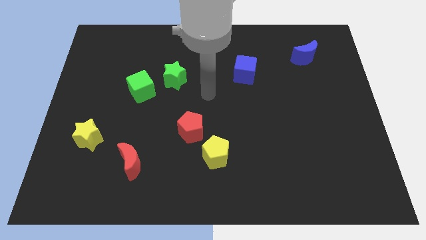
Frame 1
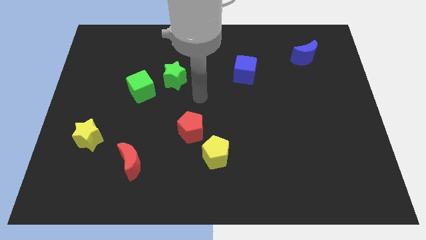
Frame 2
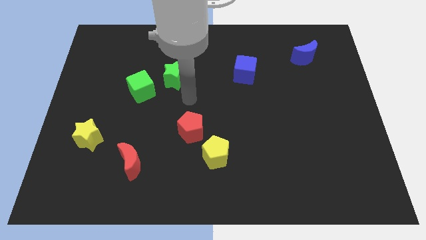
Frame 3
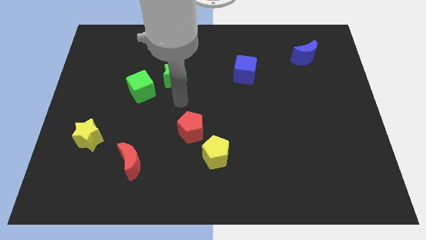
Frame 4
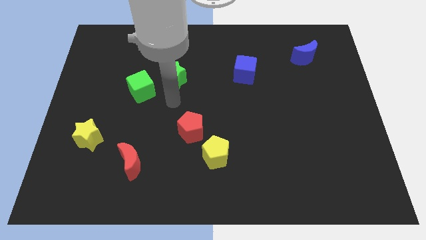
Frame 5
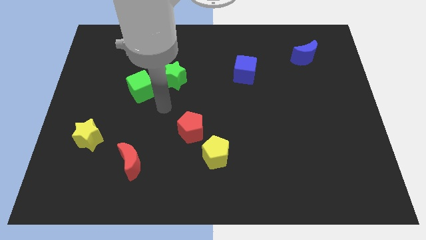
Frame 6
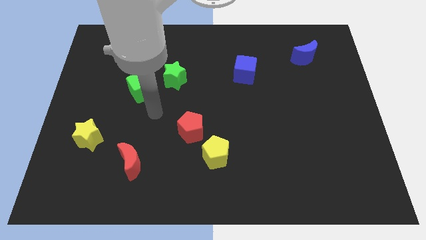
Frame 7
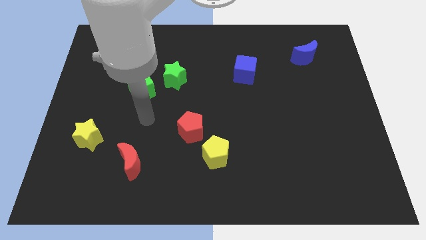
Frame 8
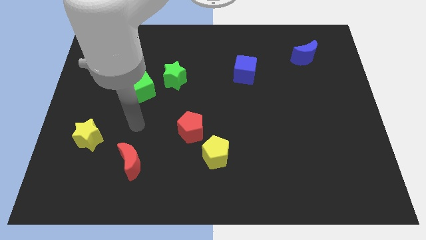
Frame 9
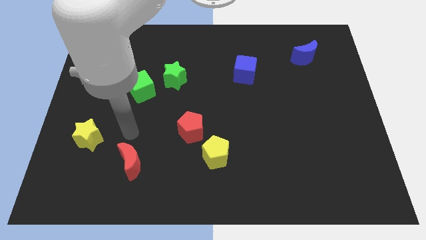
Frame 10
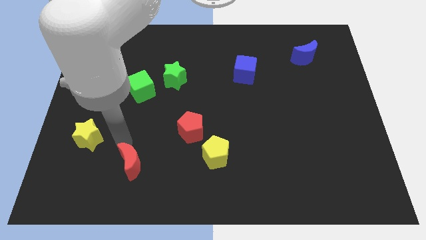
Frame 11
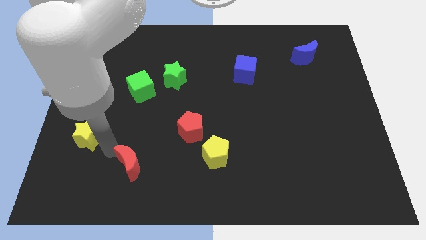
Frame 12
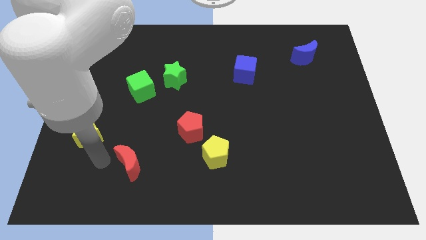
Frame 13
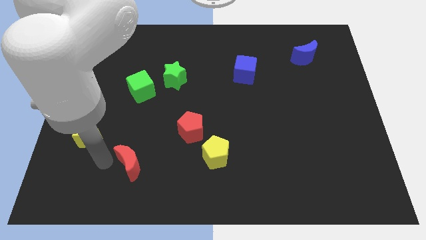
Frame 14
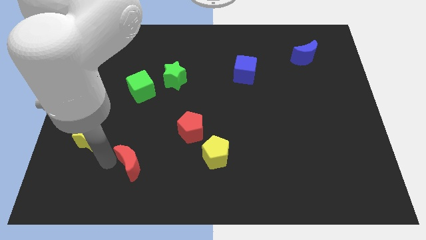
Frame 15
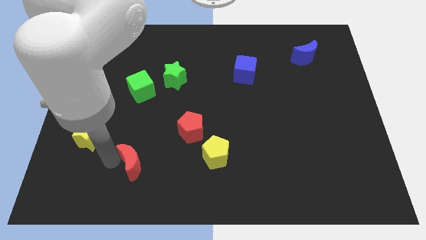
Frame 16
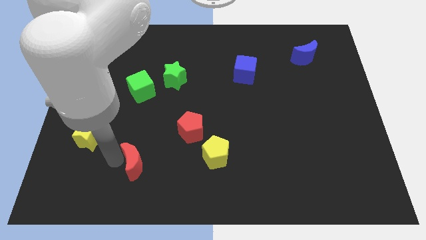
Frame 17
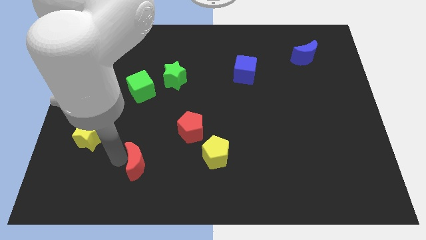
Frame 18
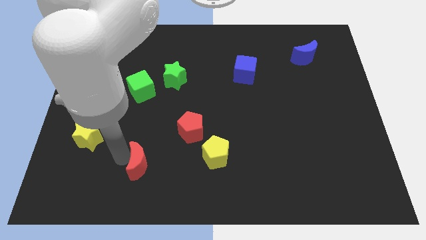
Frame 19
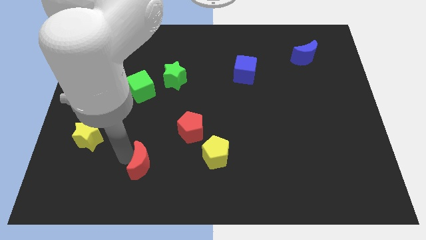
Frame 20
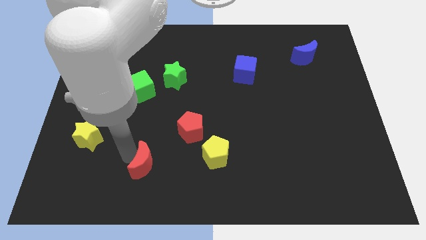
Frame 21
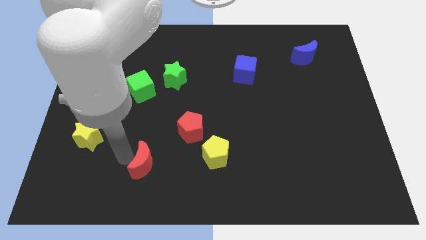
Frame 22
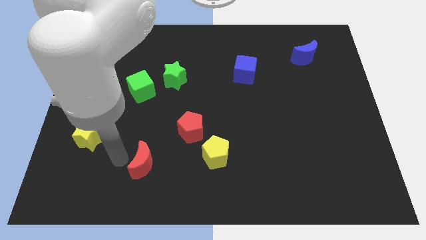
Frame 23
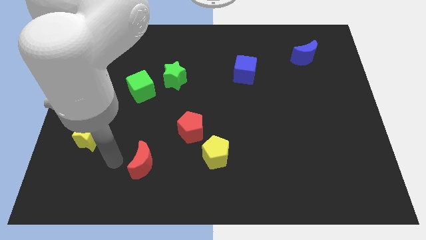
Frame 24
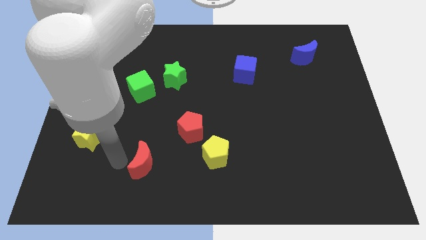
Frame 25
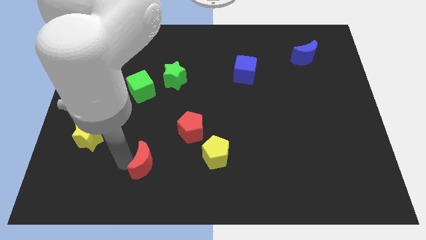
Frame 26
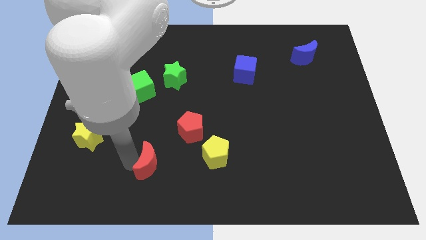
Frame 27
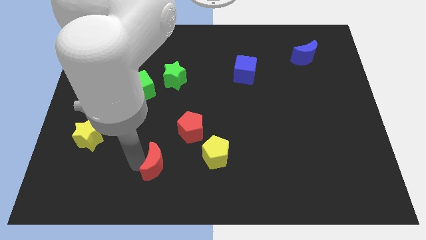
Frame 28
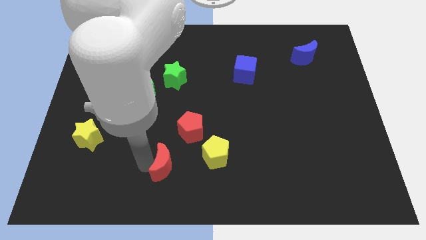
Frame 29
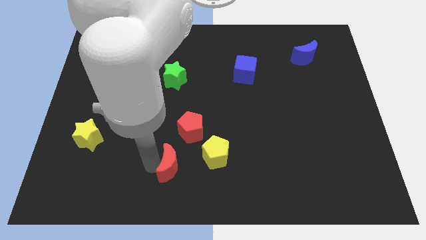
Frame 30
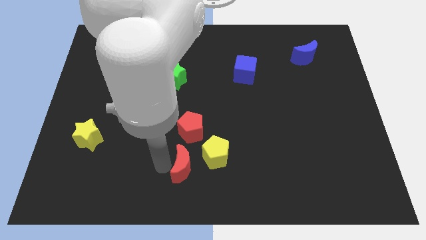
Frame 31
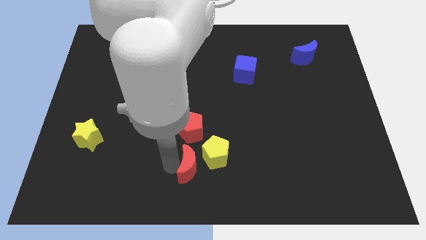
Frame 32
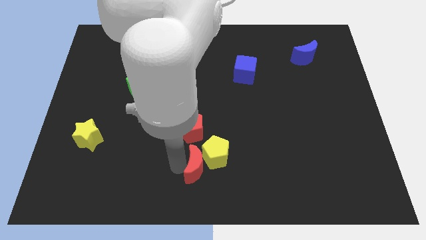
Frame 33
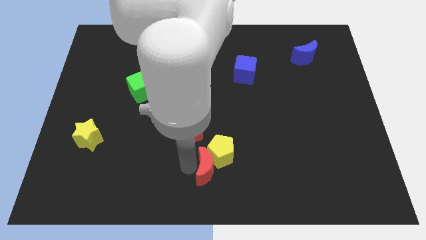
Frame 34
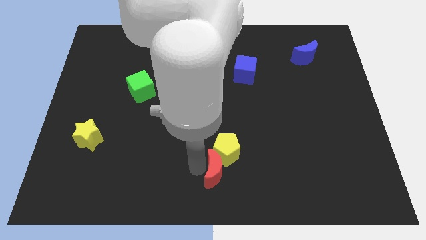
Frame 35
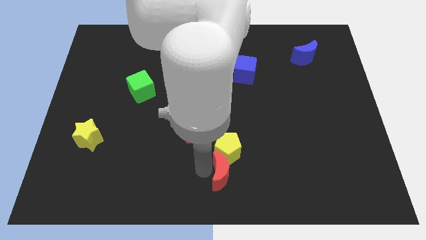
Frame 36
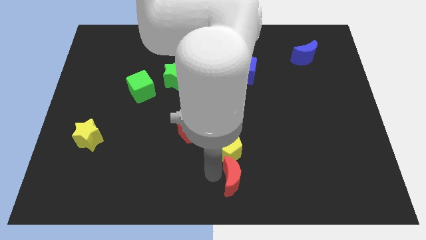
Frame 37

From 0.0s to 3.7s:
push the red moon to the right

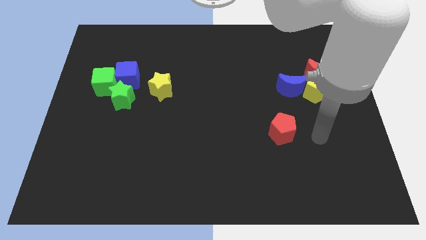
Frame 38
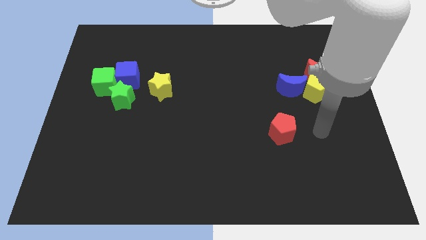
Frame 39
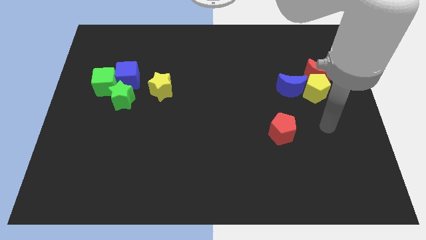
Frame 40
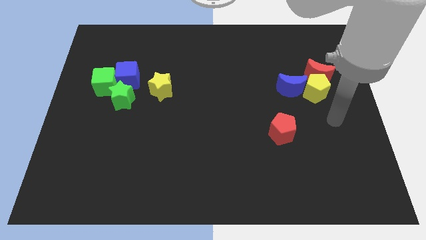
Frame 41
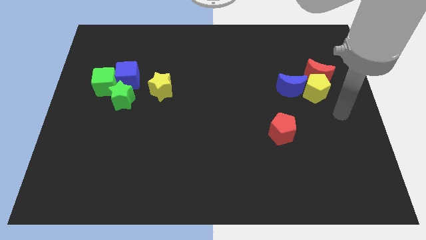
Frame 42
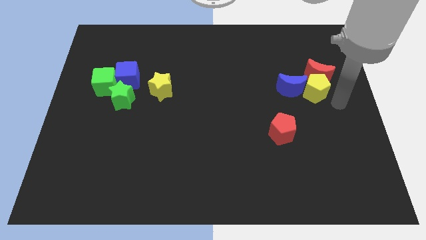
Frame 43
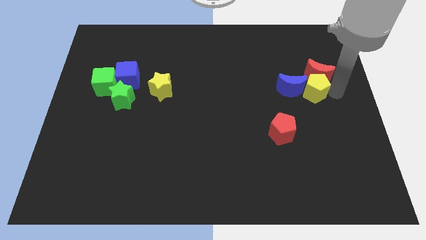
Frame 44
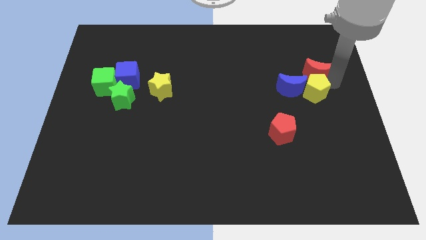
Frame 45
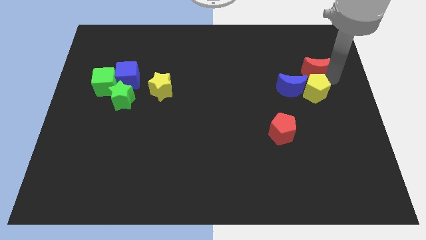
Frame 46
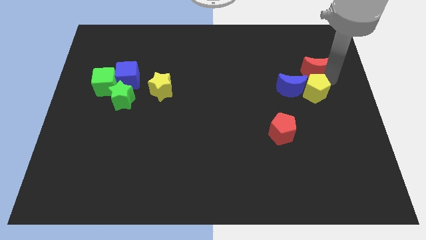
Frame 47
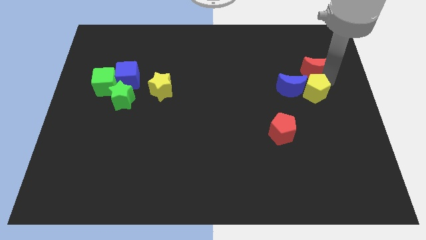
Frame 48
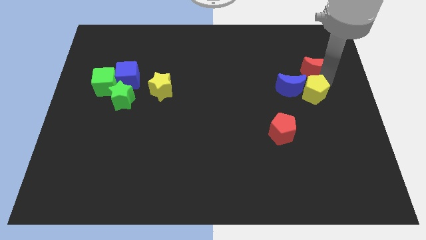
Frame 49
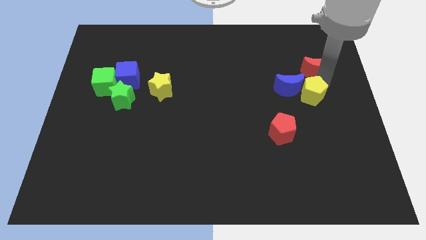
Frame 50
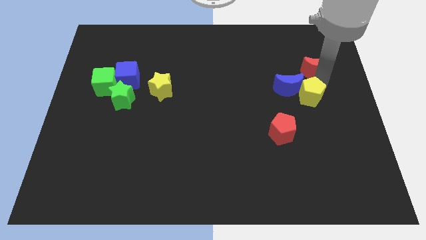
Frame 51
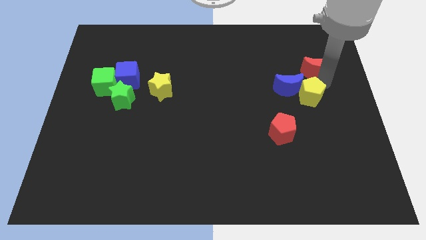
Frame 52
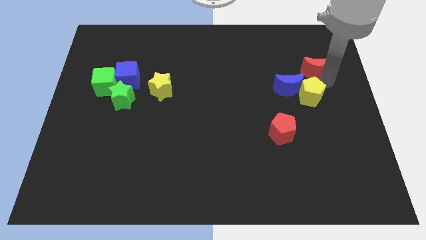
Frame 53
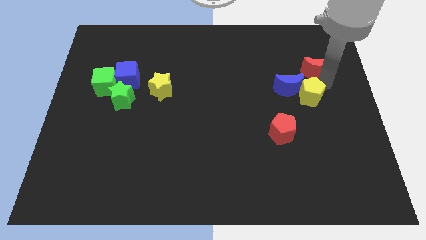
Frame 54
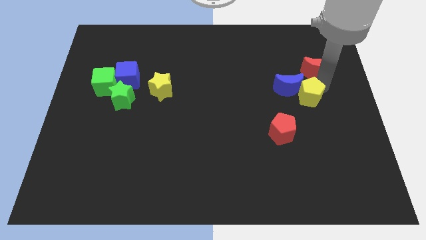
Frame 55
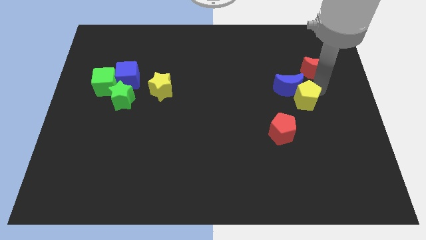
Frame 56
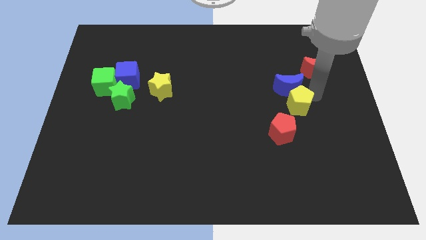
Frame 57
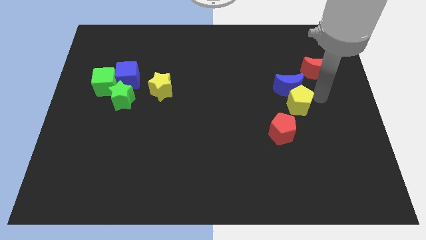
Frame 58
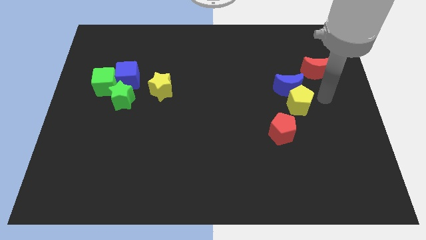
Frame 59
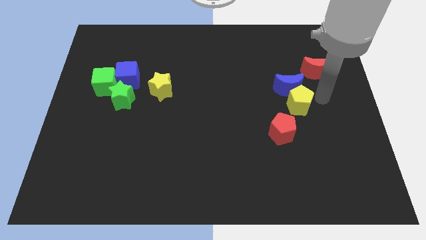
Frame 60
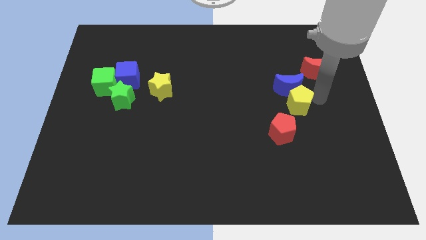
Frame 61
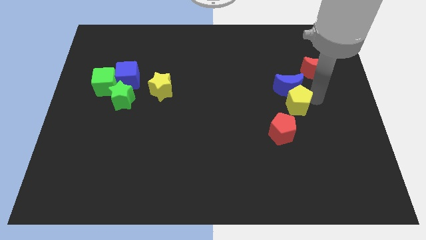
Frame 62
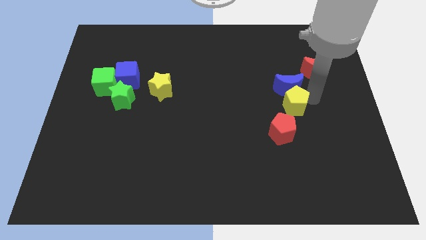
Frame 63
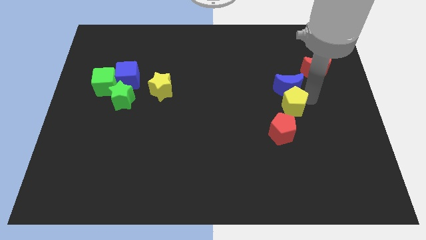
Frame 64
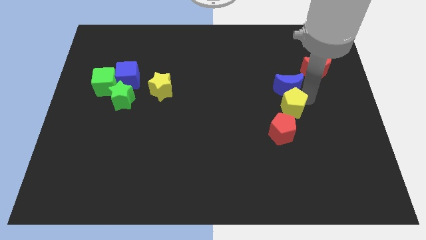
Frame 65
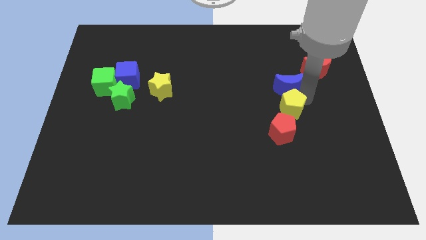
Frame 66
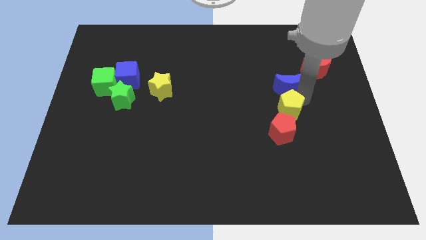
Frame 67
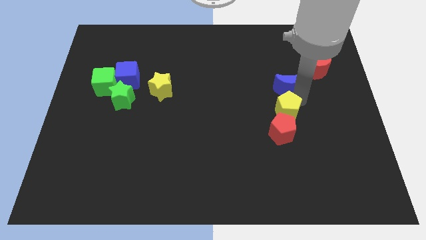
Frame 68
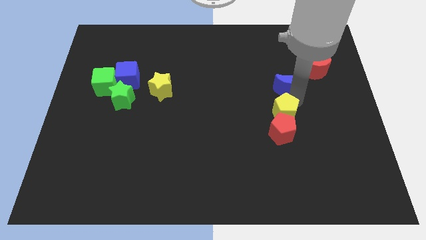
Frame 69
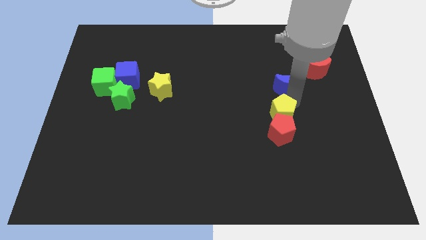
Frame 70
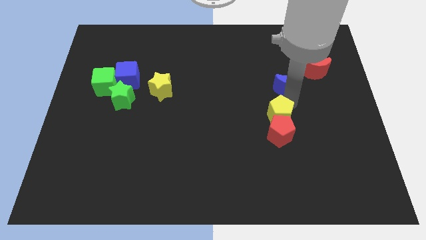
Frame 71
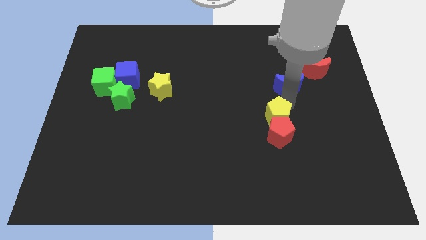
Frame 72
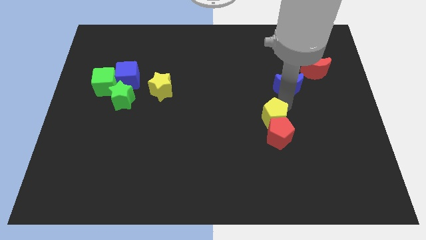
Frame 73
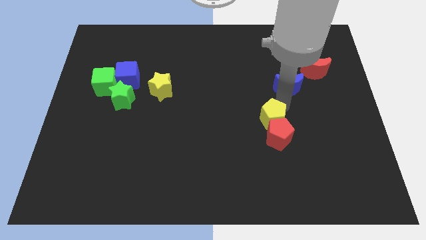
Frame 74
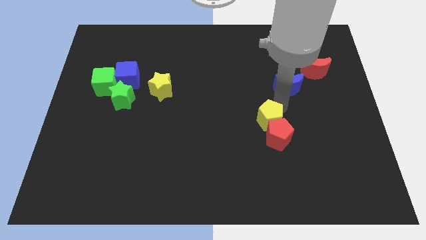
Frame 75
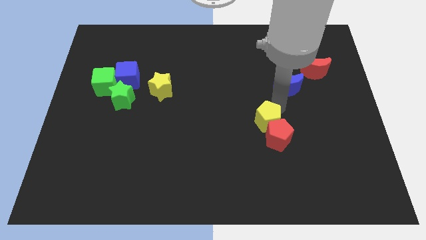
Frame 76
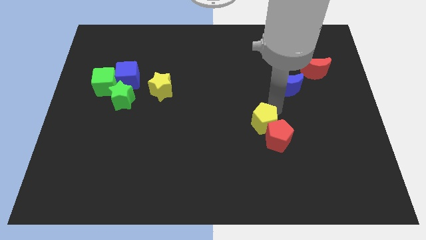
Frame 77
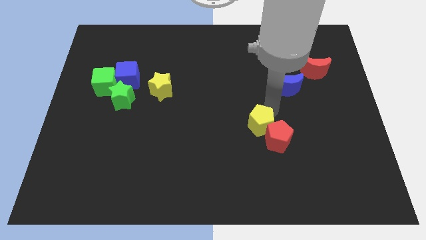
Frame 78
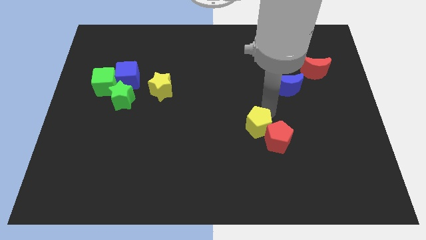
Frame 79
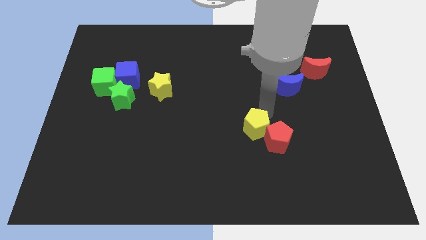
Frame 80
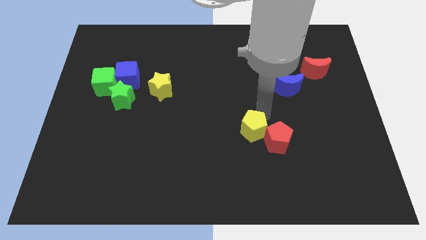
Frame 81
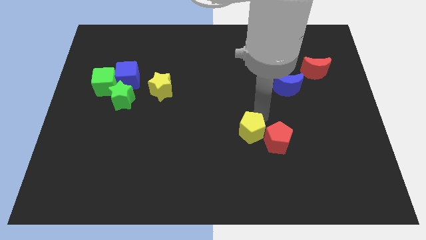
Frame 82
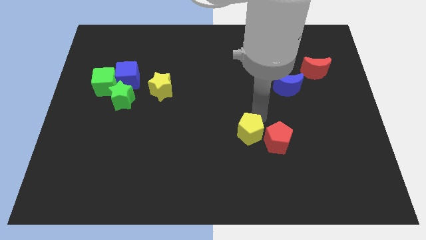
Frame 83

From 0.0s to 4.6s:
move the yellow pentagon downwards and then left
